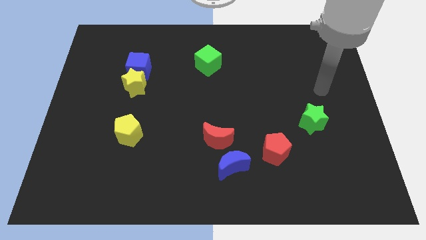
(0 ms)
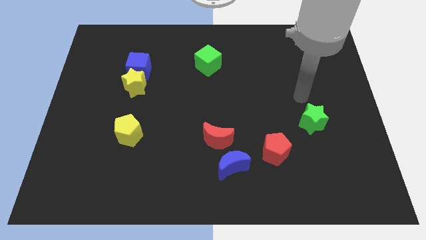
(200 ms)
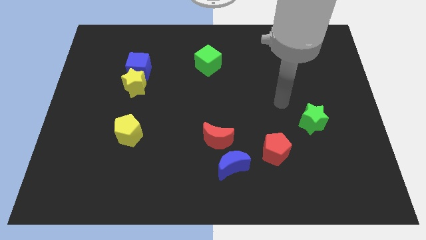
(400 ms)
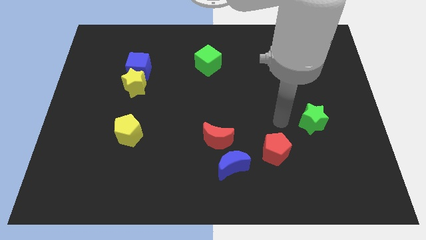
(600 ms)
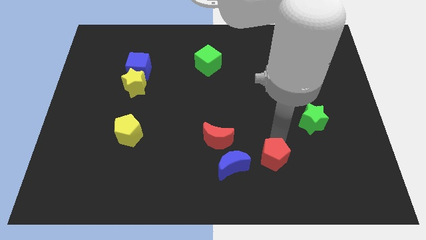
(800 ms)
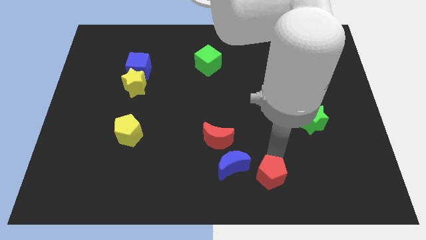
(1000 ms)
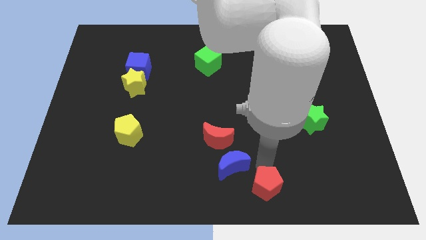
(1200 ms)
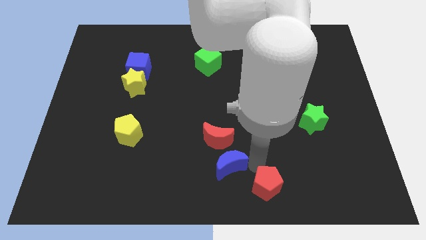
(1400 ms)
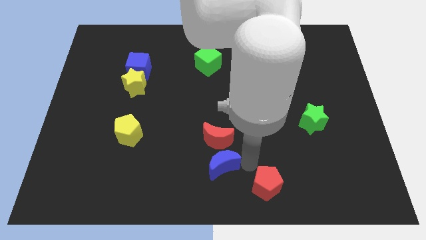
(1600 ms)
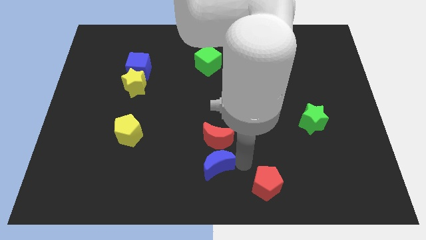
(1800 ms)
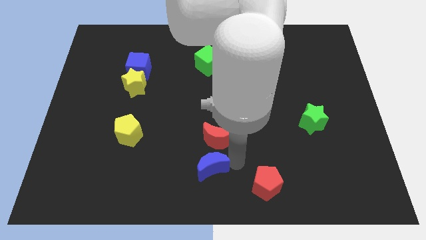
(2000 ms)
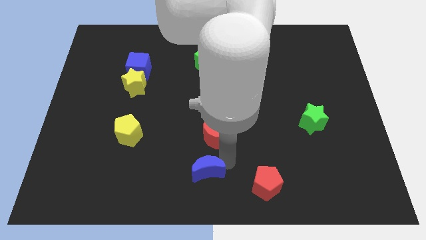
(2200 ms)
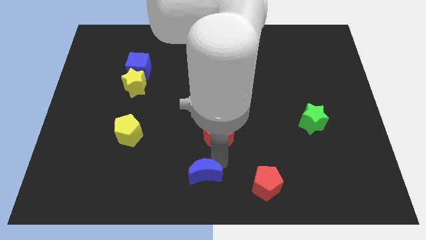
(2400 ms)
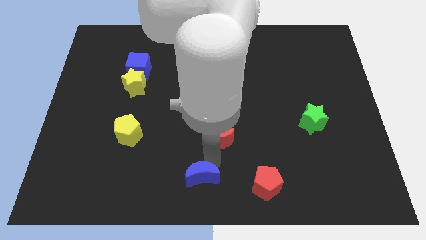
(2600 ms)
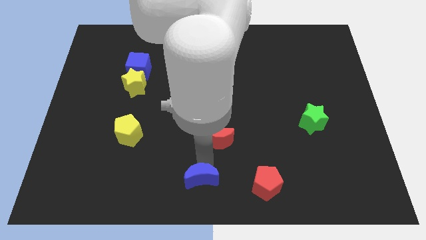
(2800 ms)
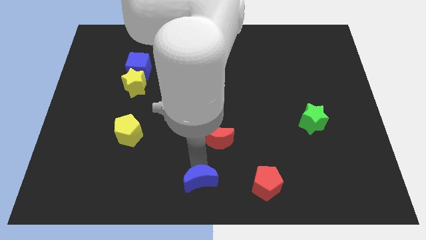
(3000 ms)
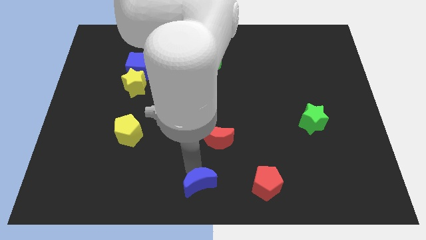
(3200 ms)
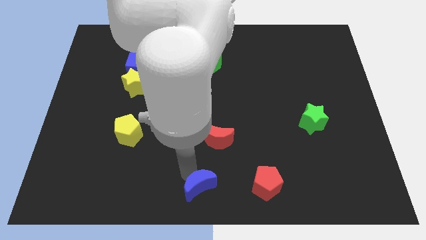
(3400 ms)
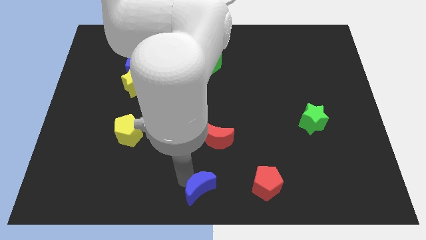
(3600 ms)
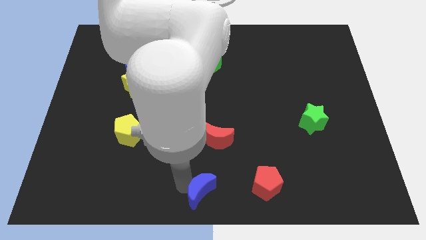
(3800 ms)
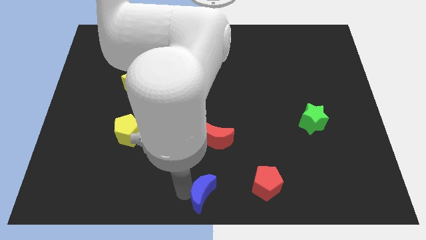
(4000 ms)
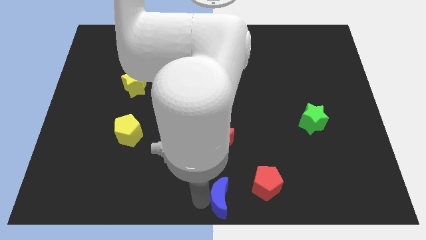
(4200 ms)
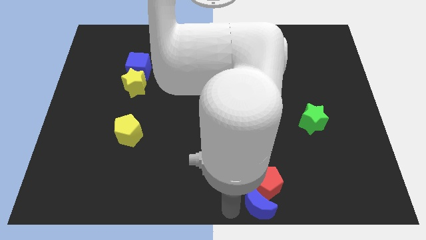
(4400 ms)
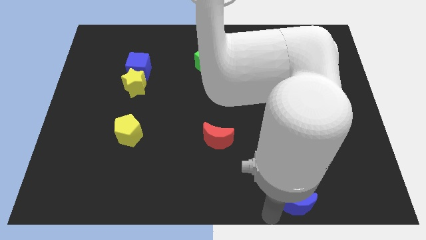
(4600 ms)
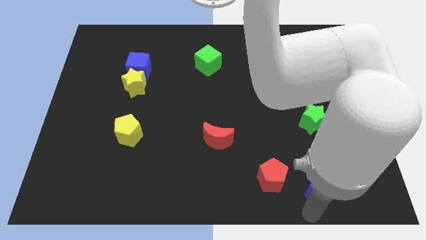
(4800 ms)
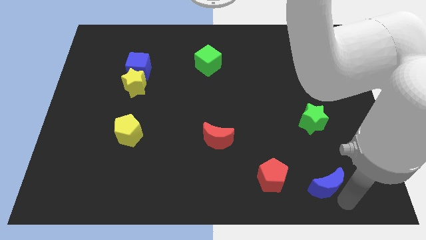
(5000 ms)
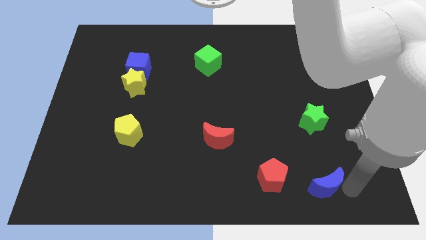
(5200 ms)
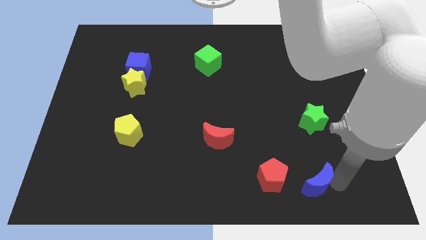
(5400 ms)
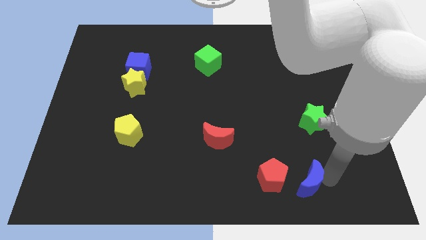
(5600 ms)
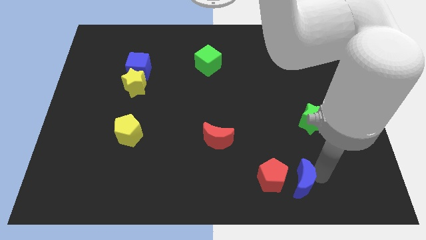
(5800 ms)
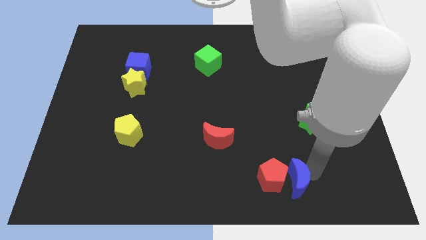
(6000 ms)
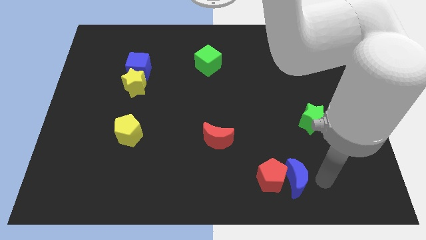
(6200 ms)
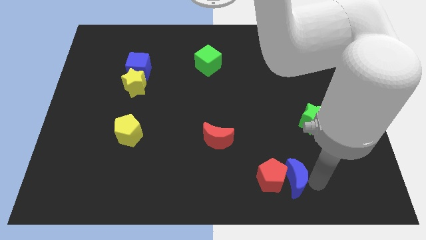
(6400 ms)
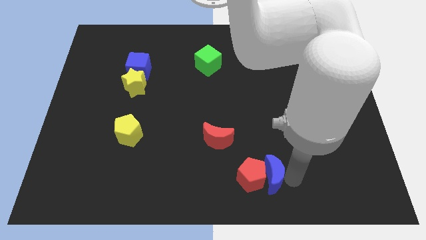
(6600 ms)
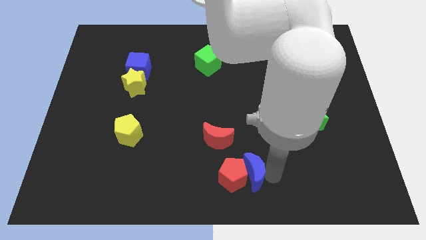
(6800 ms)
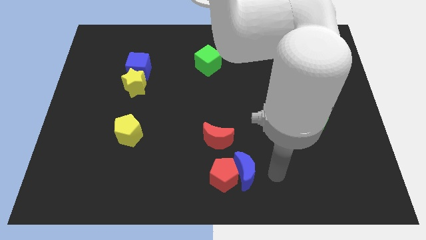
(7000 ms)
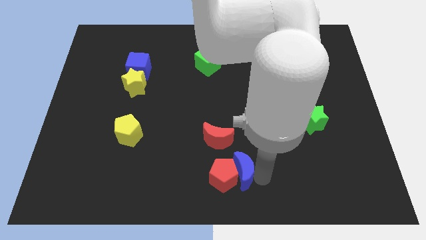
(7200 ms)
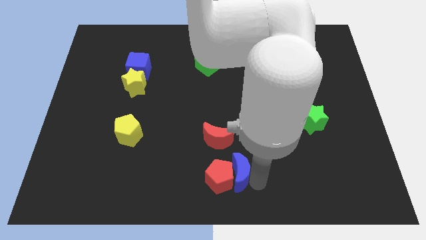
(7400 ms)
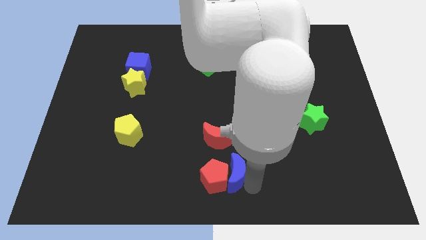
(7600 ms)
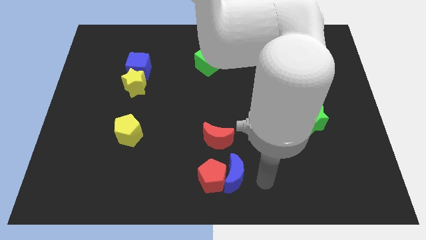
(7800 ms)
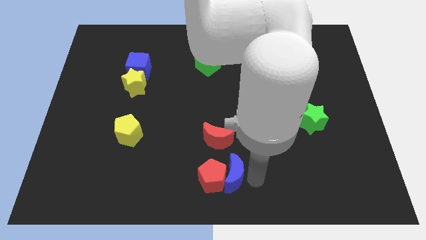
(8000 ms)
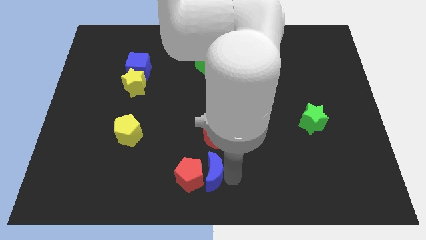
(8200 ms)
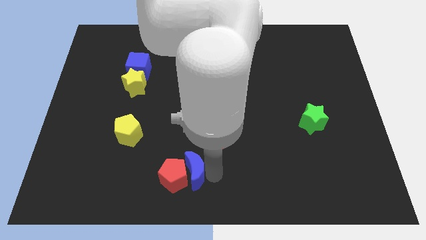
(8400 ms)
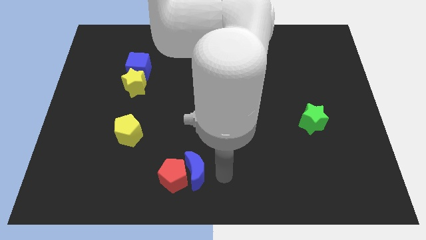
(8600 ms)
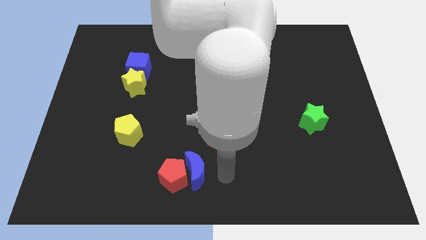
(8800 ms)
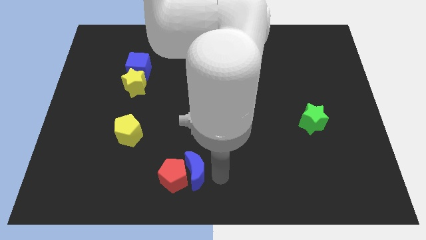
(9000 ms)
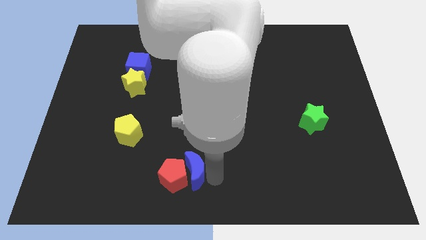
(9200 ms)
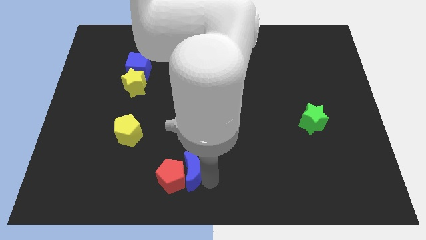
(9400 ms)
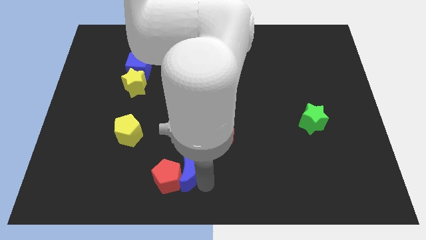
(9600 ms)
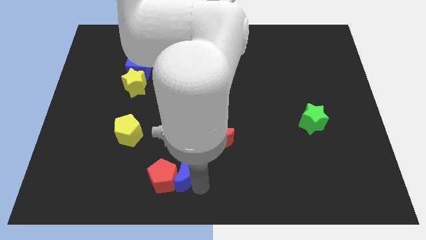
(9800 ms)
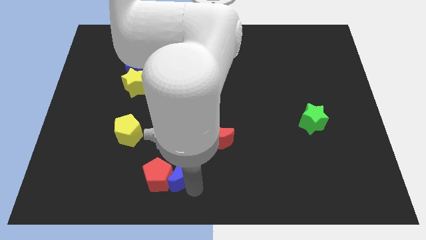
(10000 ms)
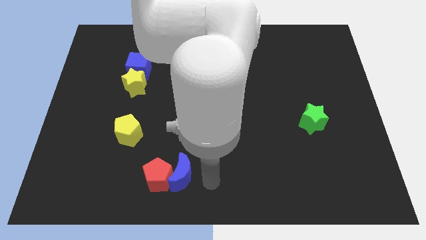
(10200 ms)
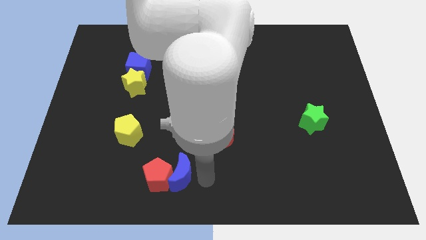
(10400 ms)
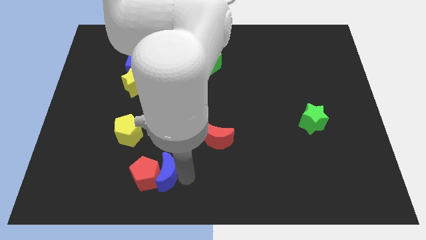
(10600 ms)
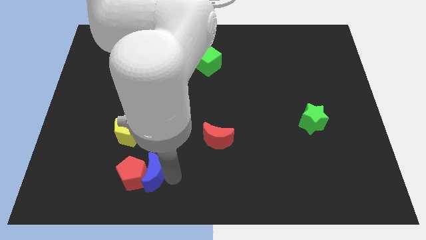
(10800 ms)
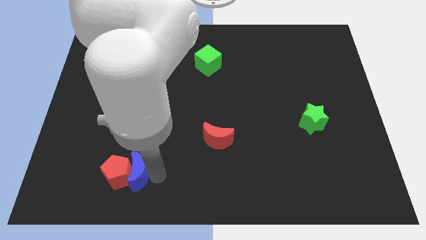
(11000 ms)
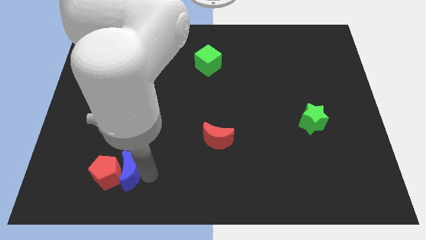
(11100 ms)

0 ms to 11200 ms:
slide the blue moon to the left

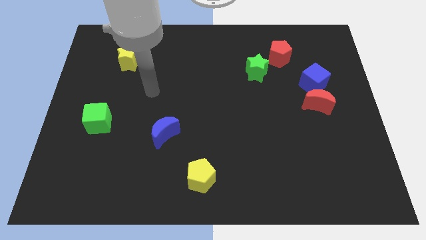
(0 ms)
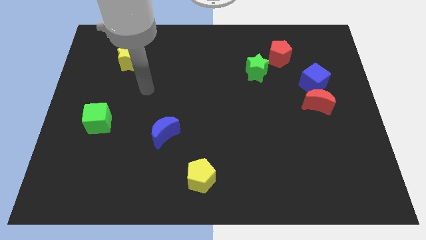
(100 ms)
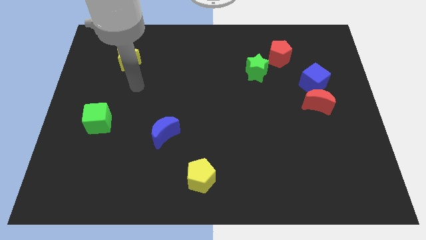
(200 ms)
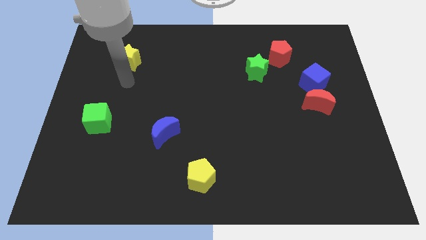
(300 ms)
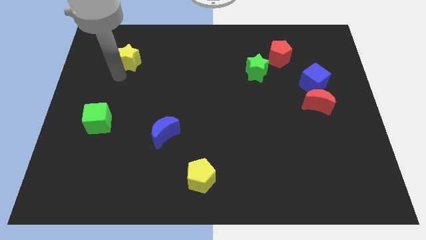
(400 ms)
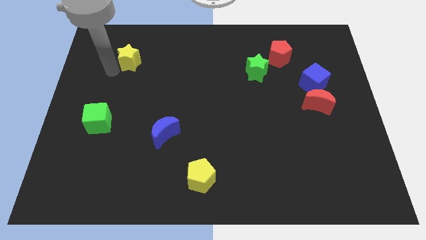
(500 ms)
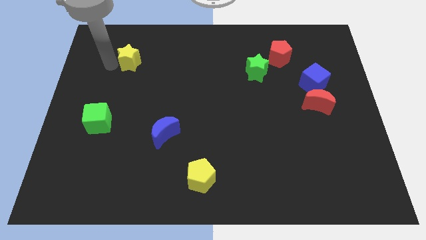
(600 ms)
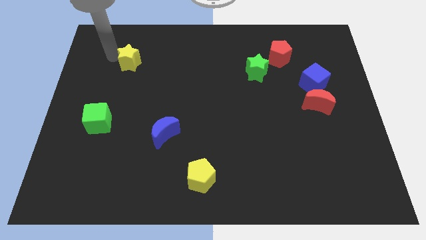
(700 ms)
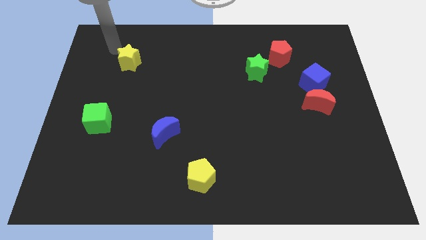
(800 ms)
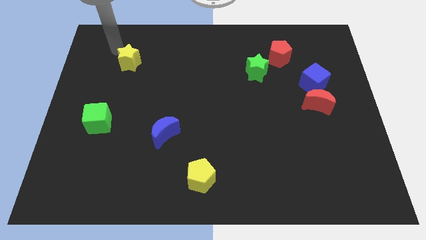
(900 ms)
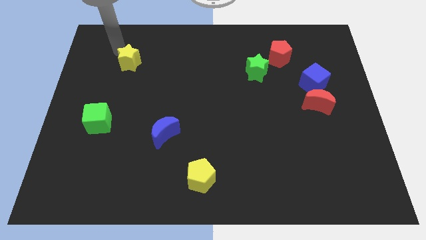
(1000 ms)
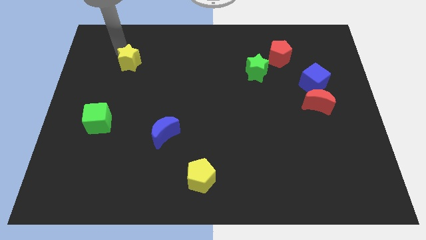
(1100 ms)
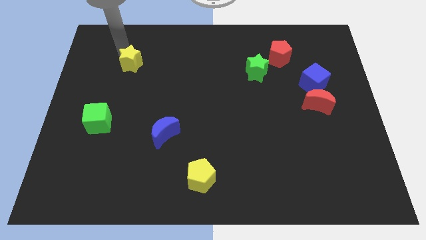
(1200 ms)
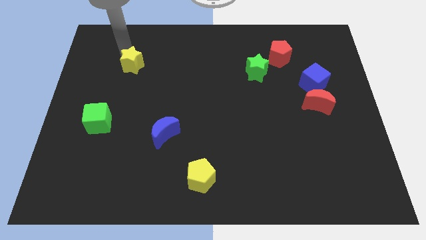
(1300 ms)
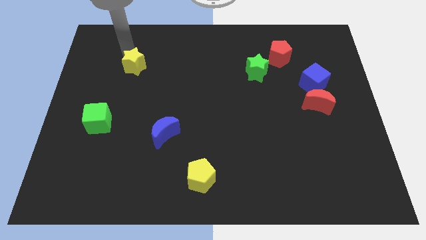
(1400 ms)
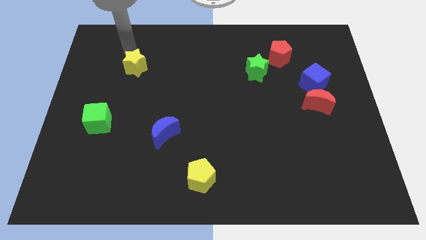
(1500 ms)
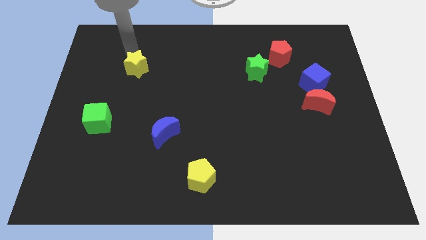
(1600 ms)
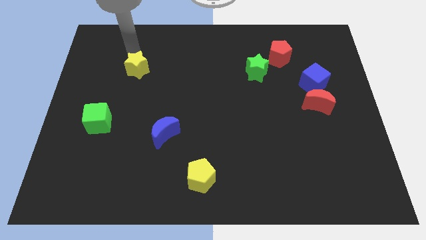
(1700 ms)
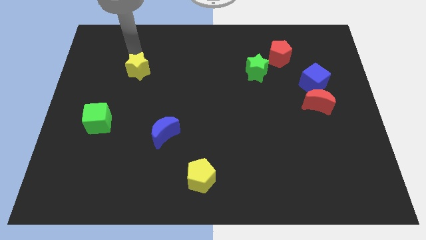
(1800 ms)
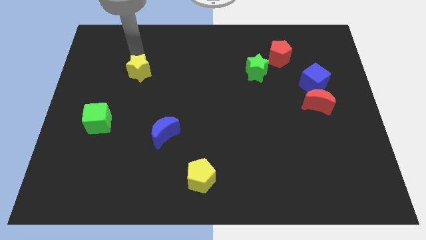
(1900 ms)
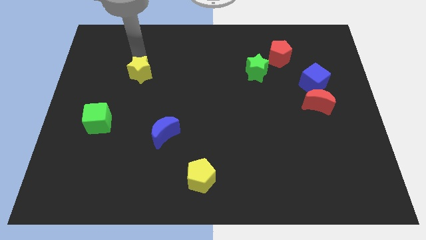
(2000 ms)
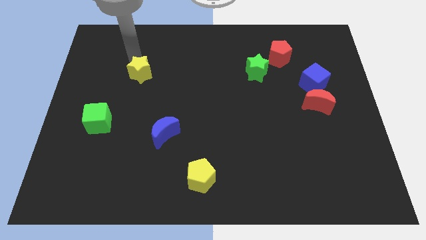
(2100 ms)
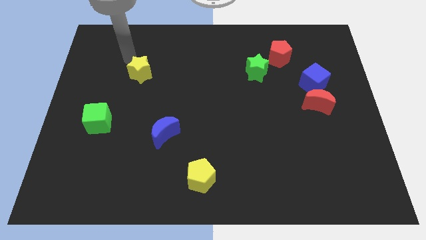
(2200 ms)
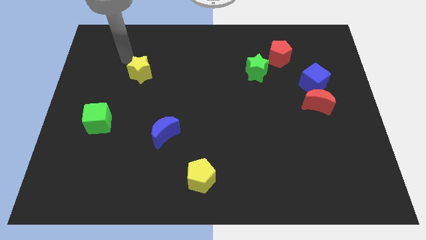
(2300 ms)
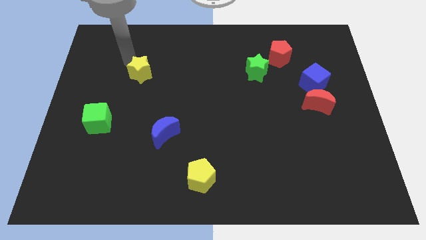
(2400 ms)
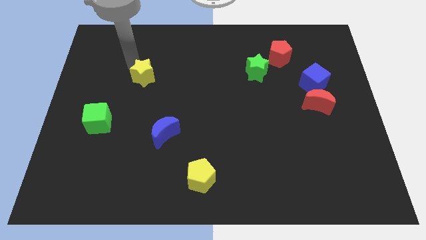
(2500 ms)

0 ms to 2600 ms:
slightly slide the yellow star down and to the right diagonally
